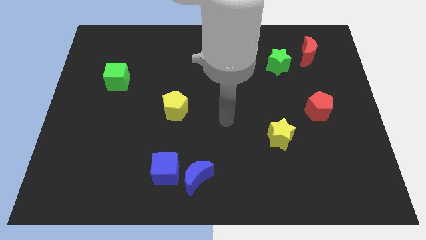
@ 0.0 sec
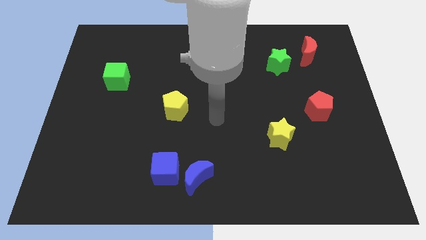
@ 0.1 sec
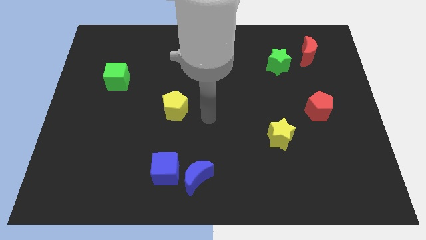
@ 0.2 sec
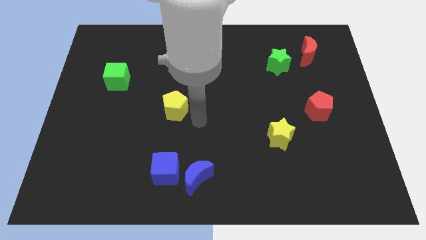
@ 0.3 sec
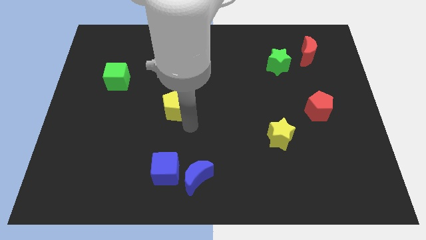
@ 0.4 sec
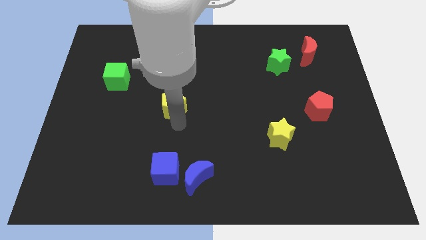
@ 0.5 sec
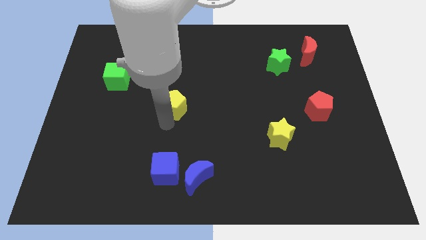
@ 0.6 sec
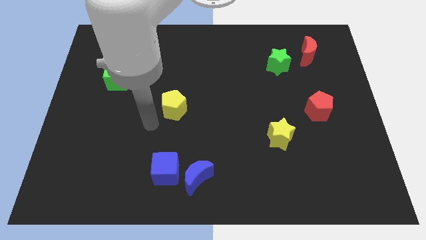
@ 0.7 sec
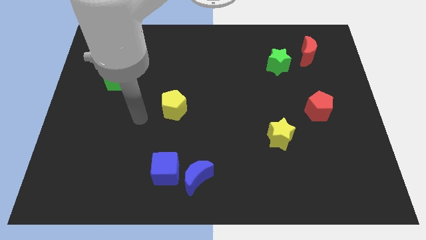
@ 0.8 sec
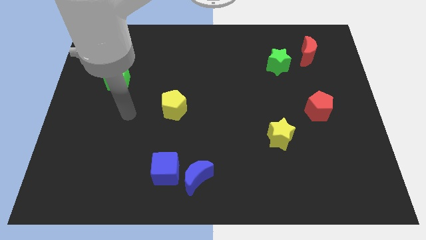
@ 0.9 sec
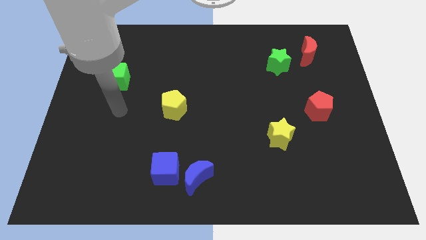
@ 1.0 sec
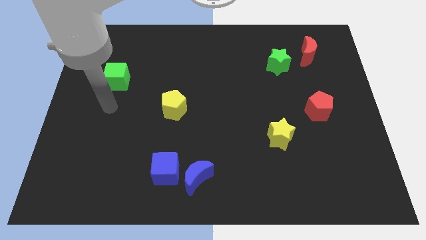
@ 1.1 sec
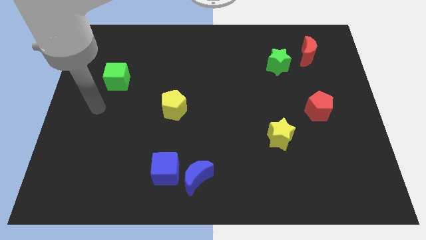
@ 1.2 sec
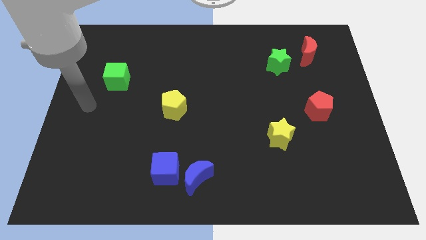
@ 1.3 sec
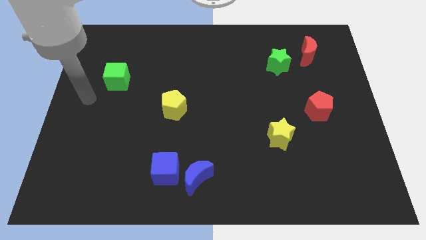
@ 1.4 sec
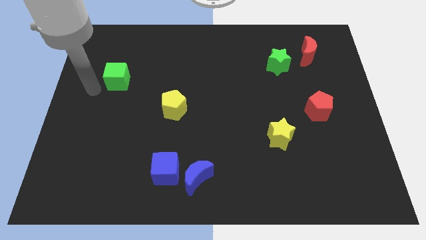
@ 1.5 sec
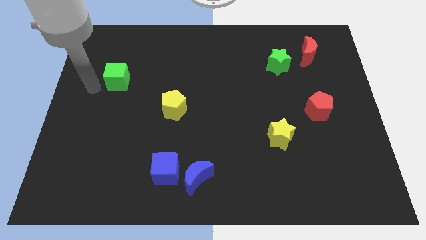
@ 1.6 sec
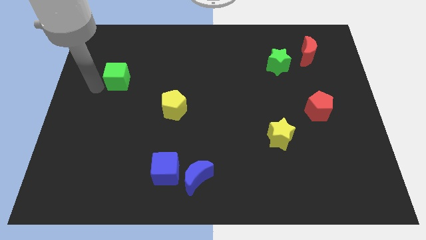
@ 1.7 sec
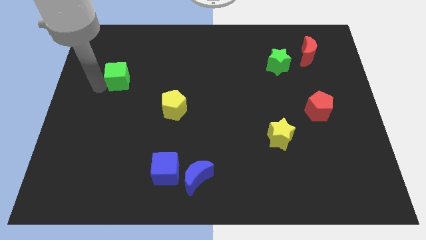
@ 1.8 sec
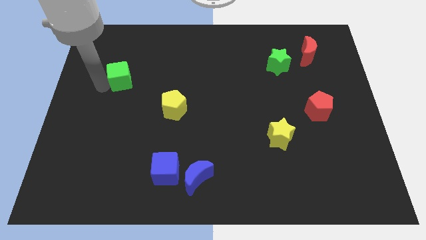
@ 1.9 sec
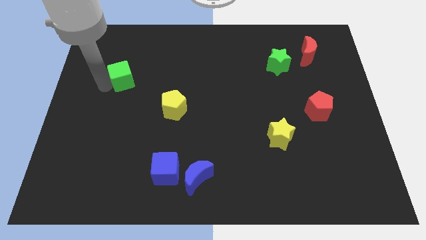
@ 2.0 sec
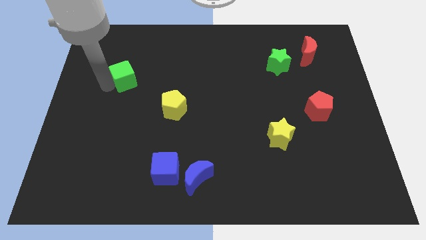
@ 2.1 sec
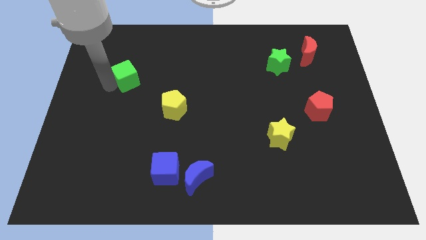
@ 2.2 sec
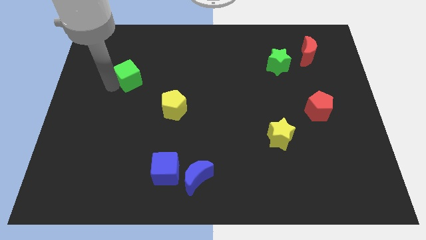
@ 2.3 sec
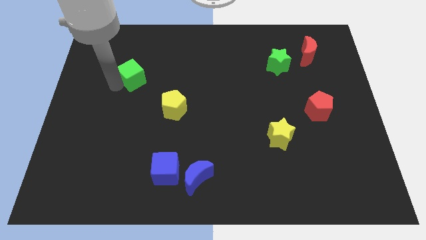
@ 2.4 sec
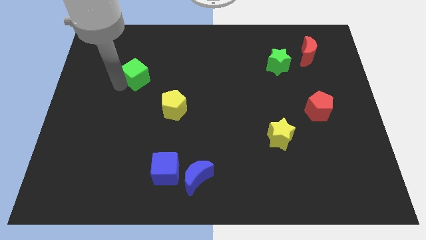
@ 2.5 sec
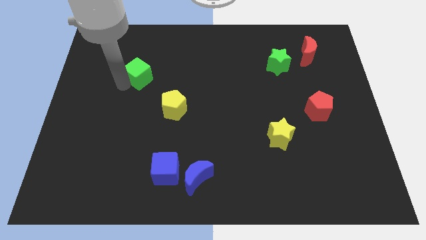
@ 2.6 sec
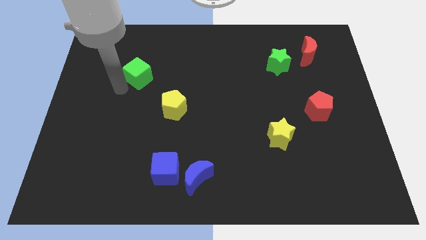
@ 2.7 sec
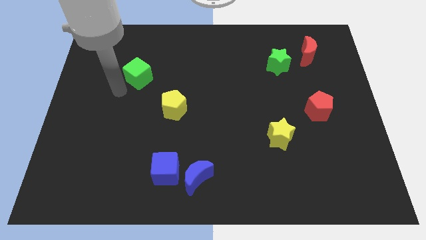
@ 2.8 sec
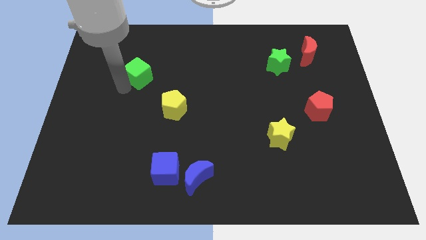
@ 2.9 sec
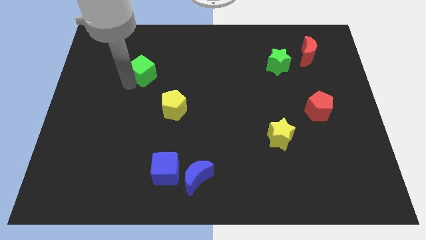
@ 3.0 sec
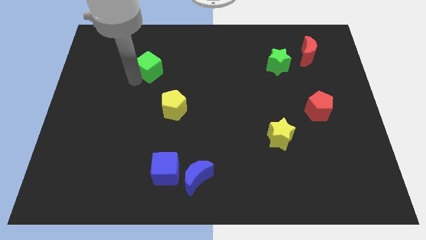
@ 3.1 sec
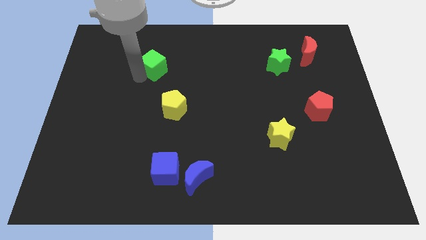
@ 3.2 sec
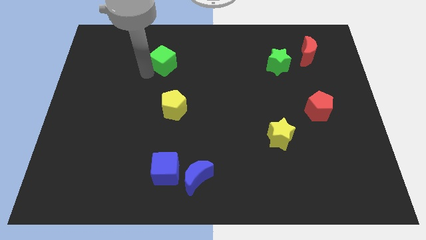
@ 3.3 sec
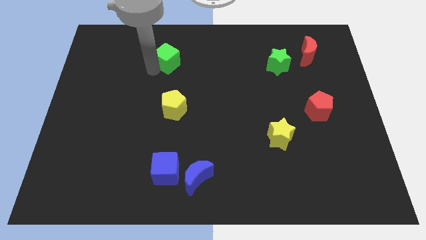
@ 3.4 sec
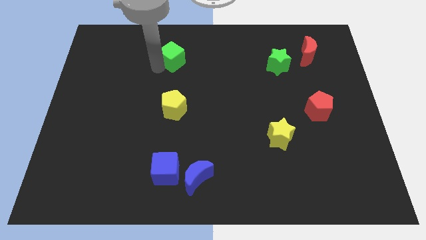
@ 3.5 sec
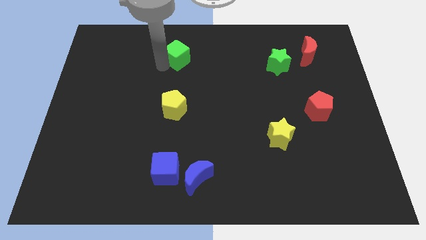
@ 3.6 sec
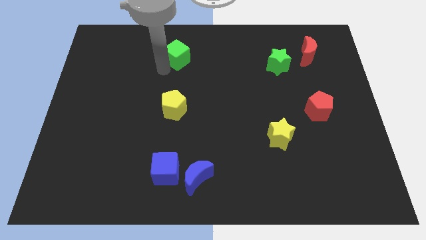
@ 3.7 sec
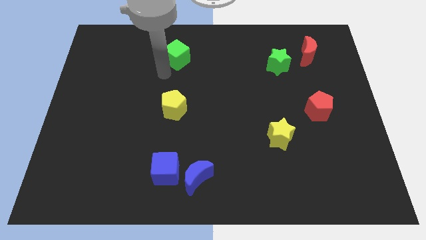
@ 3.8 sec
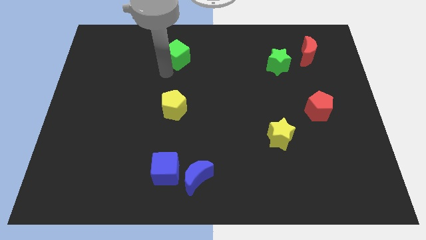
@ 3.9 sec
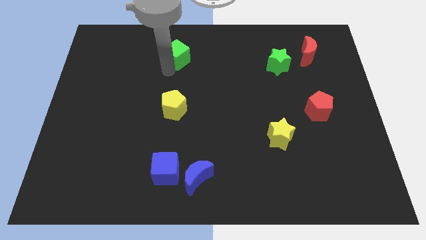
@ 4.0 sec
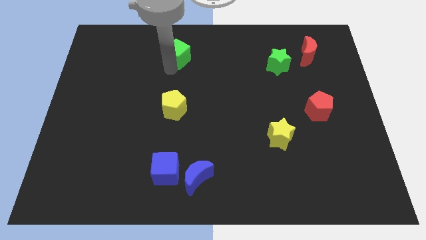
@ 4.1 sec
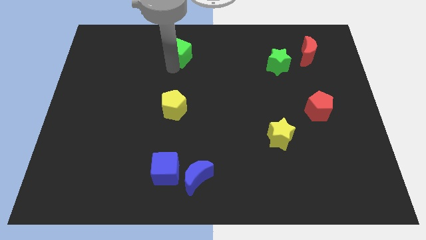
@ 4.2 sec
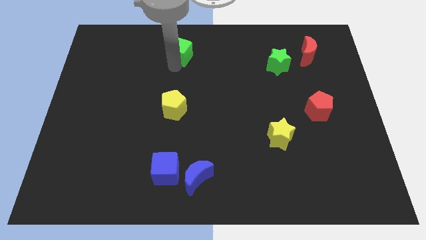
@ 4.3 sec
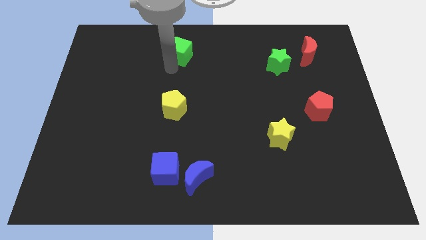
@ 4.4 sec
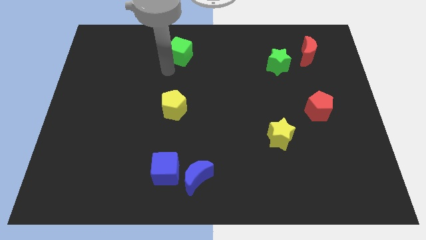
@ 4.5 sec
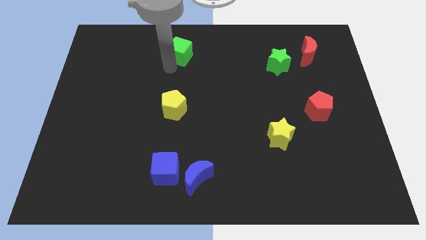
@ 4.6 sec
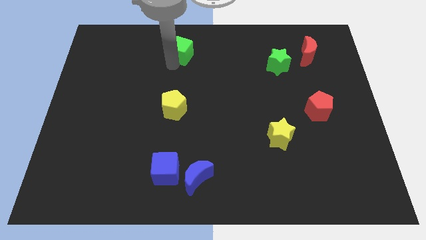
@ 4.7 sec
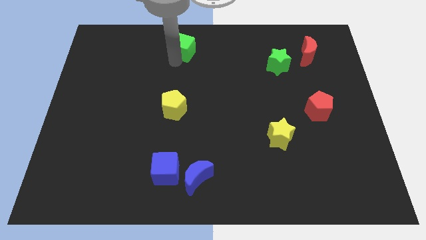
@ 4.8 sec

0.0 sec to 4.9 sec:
push the green cube to the top side

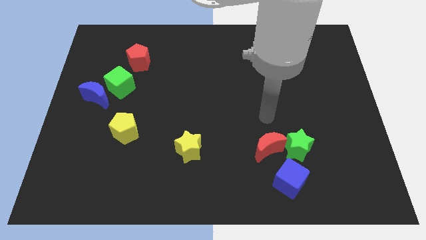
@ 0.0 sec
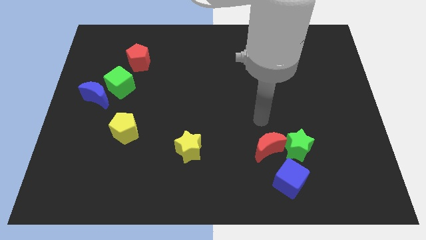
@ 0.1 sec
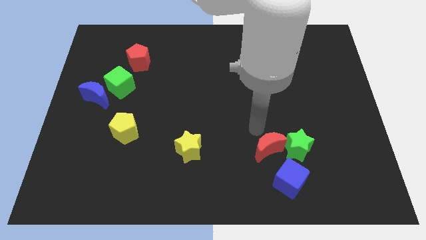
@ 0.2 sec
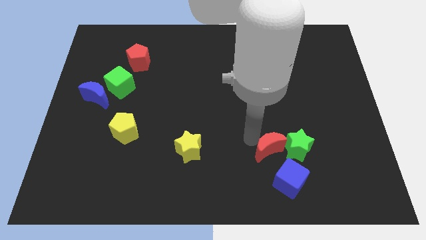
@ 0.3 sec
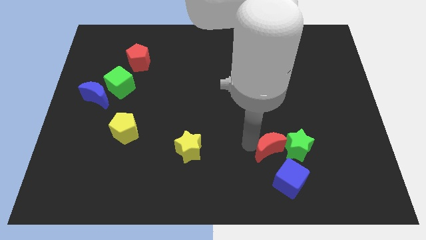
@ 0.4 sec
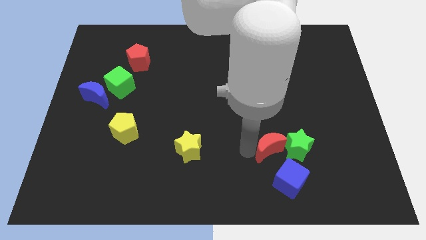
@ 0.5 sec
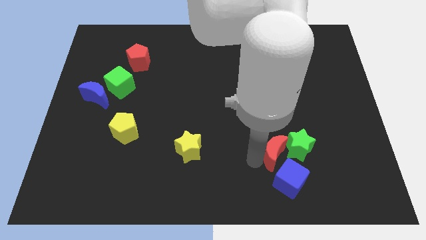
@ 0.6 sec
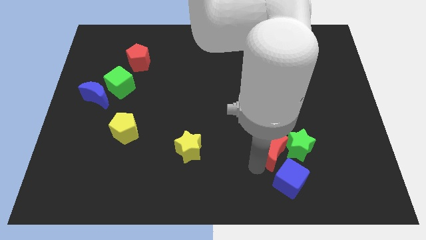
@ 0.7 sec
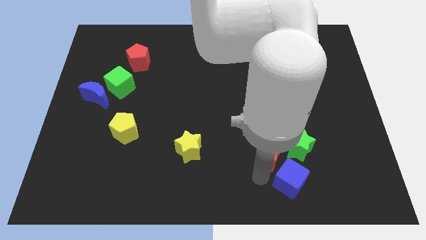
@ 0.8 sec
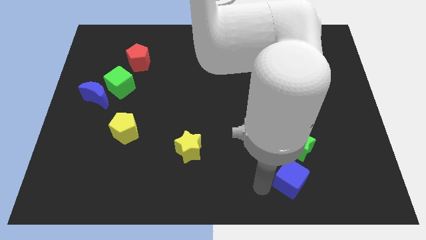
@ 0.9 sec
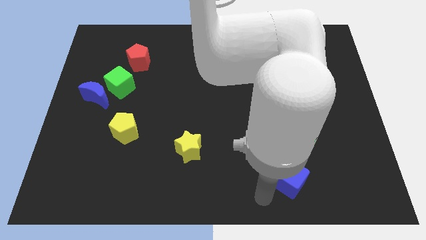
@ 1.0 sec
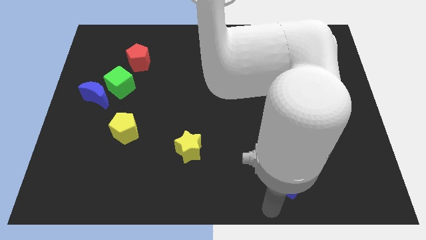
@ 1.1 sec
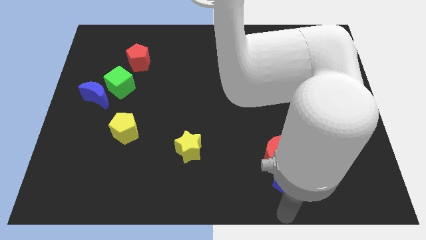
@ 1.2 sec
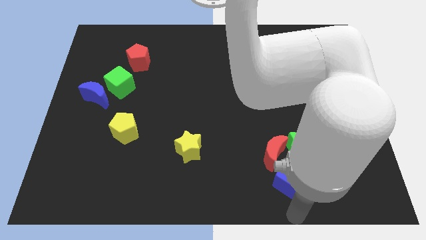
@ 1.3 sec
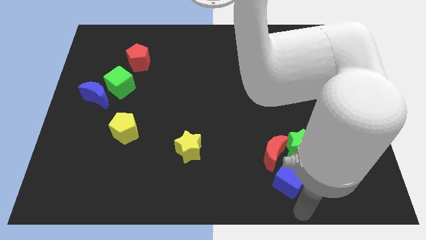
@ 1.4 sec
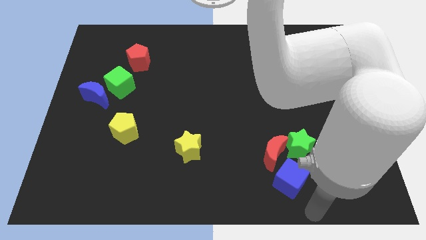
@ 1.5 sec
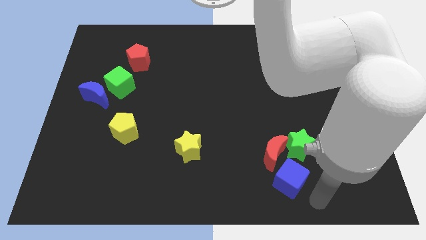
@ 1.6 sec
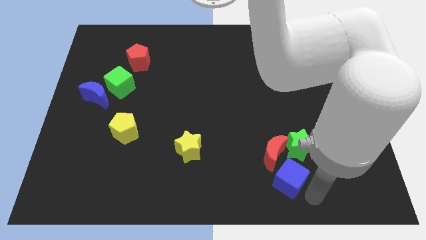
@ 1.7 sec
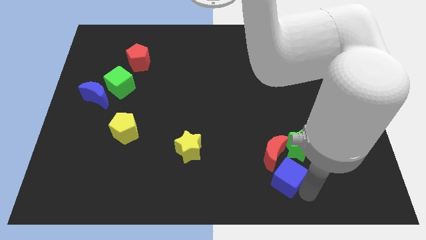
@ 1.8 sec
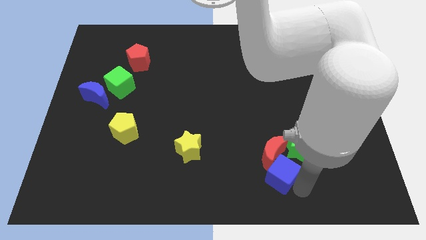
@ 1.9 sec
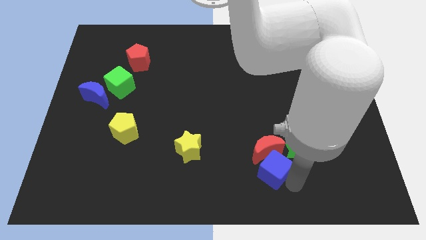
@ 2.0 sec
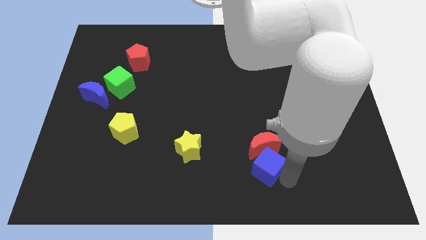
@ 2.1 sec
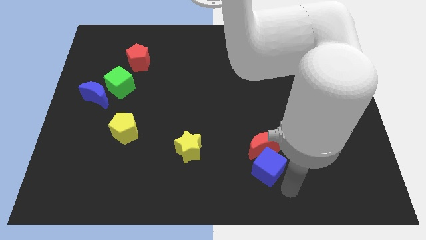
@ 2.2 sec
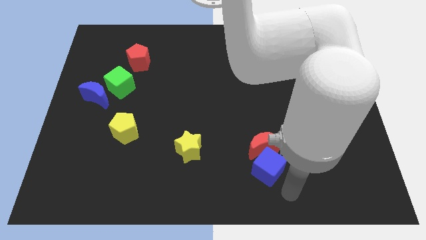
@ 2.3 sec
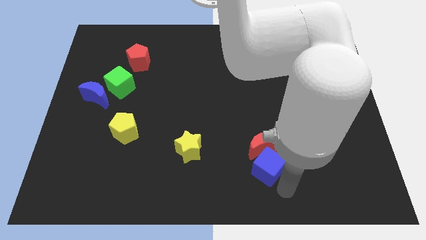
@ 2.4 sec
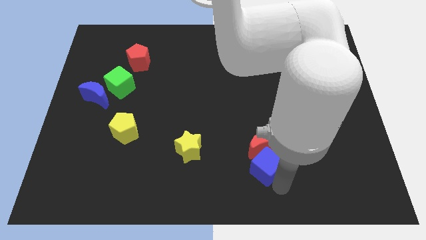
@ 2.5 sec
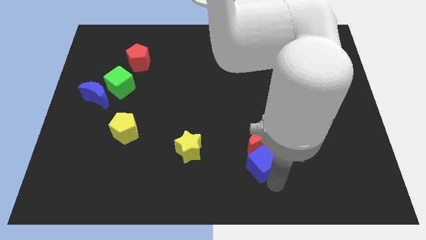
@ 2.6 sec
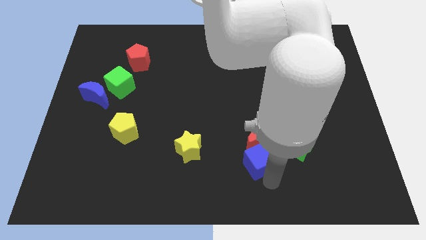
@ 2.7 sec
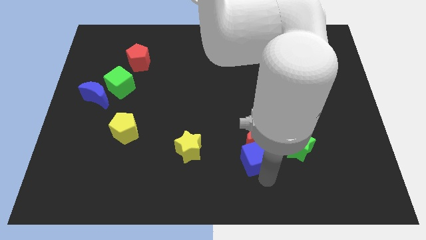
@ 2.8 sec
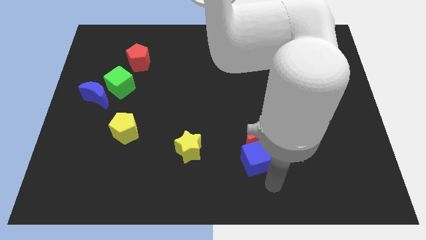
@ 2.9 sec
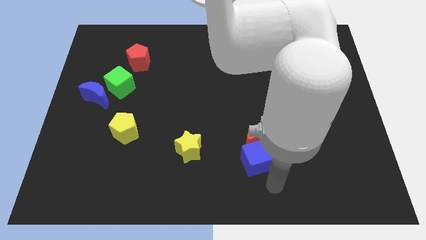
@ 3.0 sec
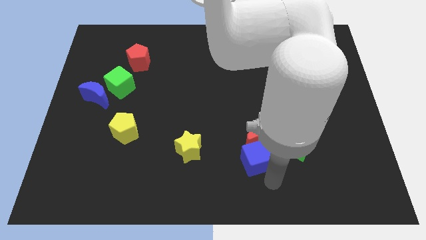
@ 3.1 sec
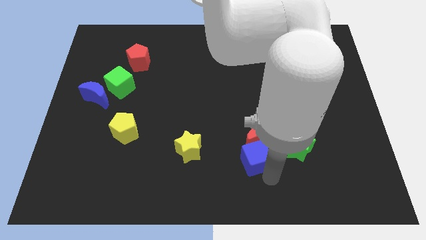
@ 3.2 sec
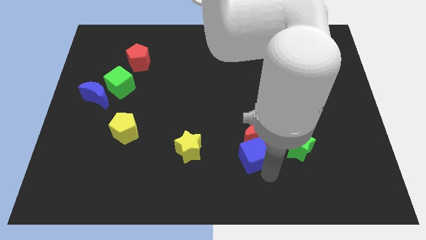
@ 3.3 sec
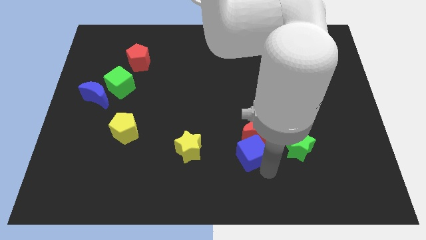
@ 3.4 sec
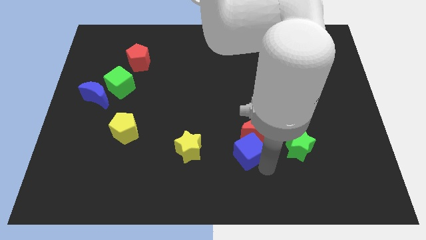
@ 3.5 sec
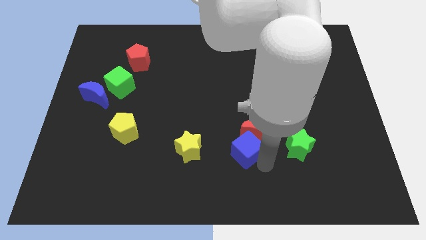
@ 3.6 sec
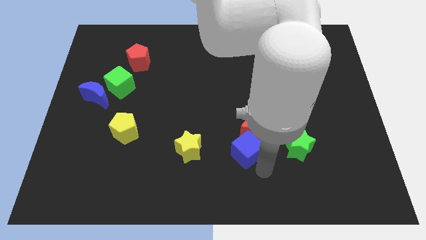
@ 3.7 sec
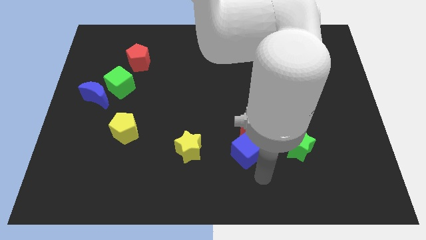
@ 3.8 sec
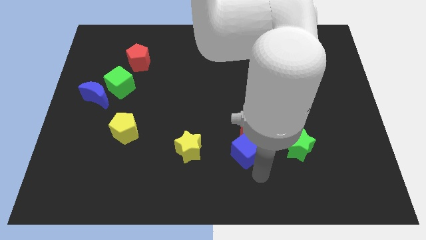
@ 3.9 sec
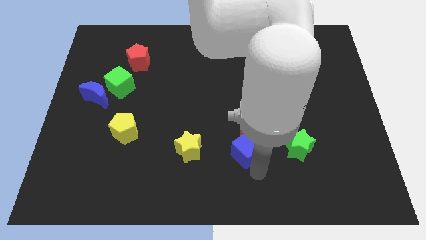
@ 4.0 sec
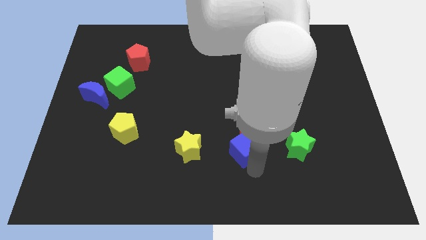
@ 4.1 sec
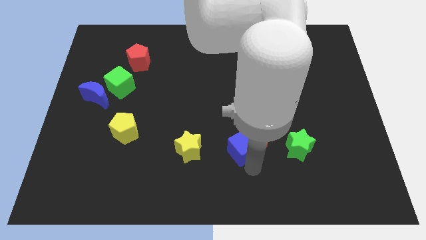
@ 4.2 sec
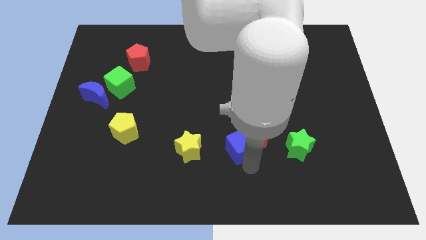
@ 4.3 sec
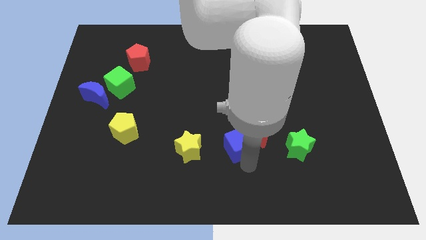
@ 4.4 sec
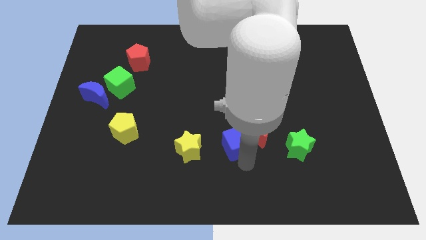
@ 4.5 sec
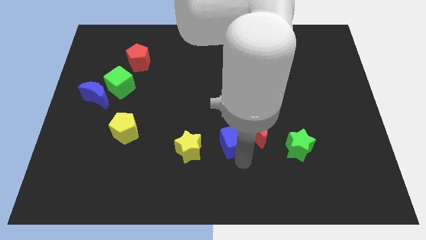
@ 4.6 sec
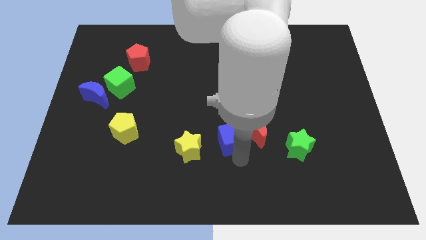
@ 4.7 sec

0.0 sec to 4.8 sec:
push the blue cube to the center
